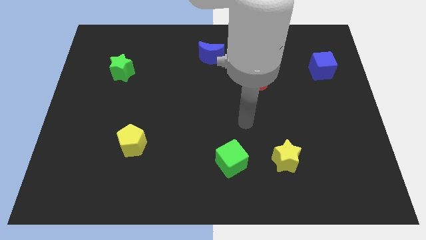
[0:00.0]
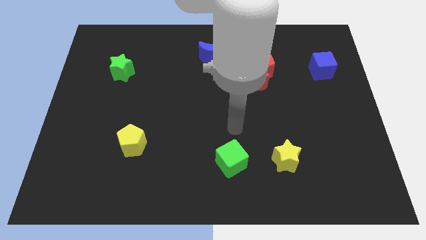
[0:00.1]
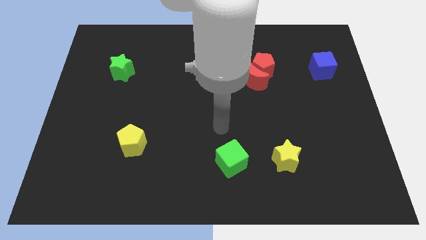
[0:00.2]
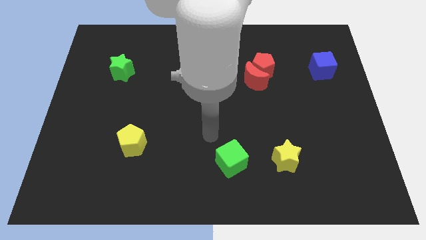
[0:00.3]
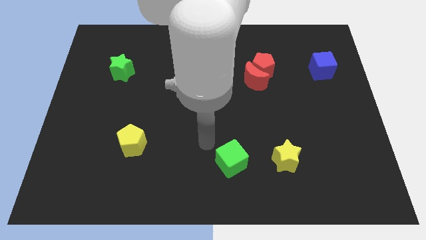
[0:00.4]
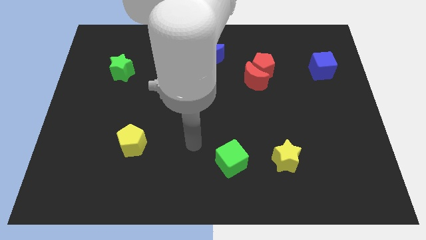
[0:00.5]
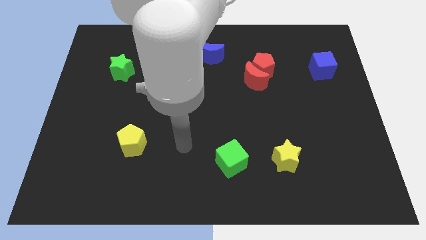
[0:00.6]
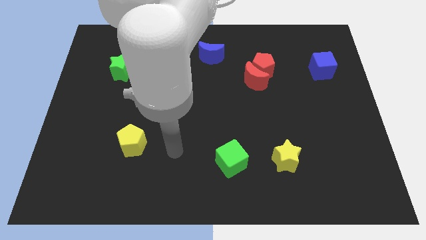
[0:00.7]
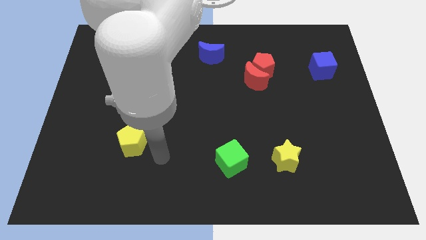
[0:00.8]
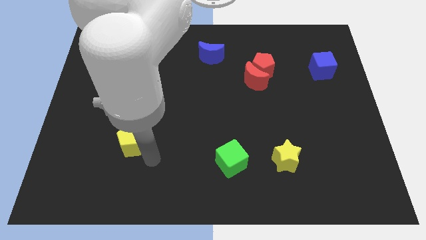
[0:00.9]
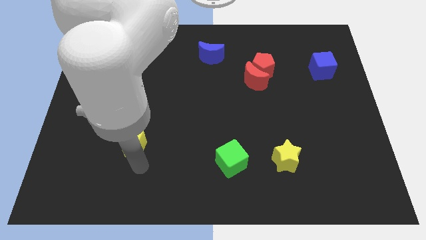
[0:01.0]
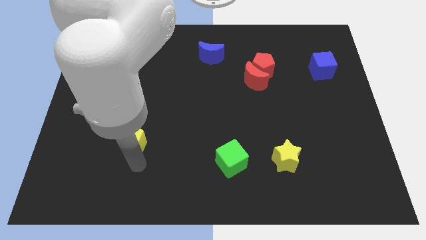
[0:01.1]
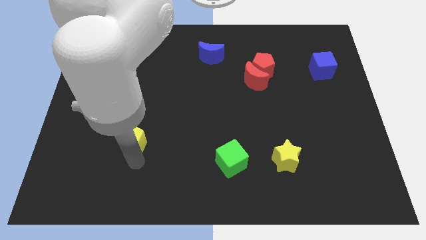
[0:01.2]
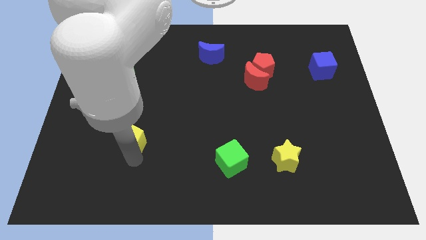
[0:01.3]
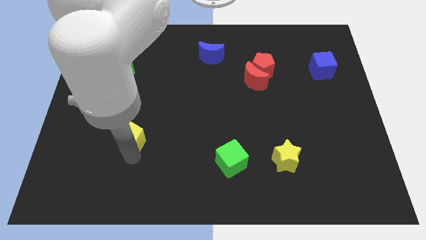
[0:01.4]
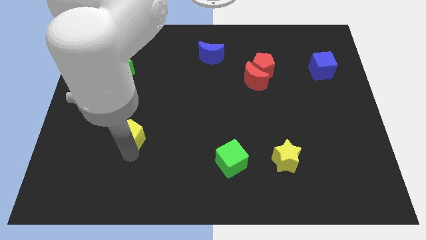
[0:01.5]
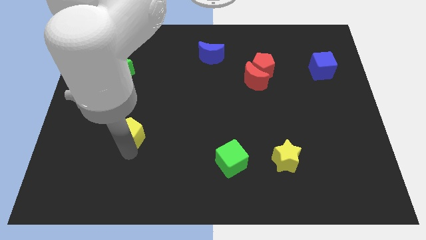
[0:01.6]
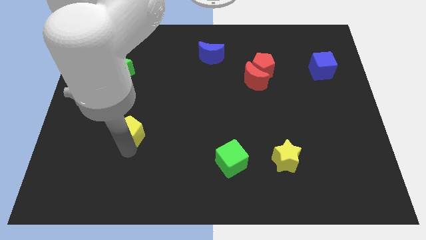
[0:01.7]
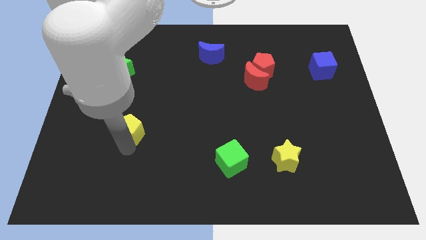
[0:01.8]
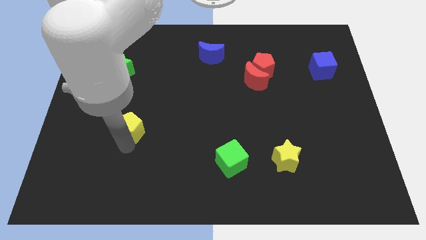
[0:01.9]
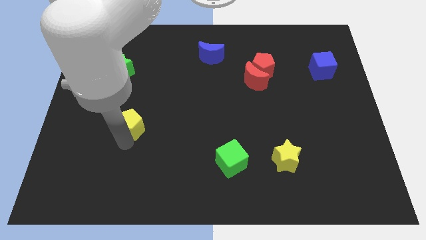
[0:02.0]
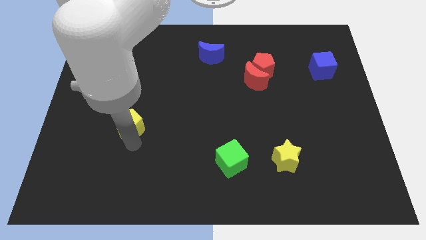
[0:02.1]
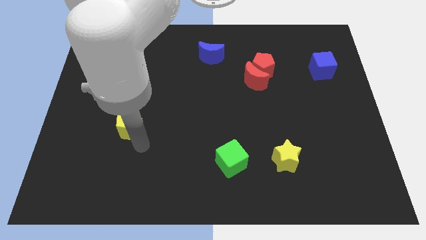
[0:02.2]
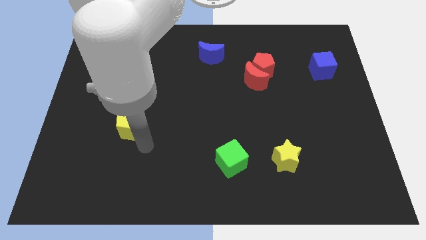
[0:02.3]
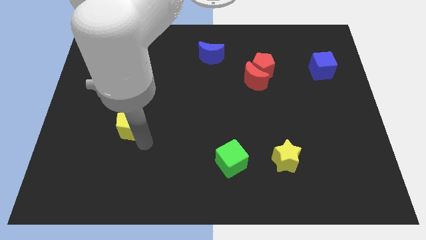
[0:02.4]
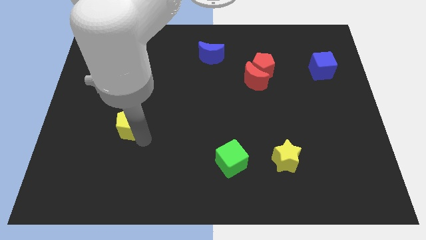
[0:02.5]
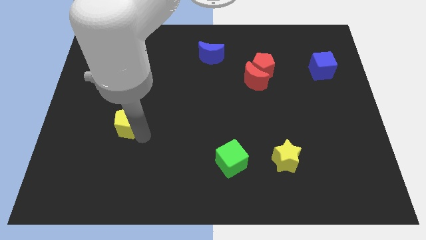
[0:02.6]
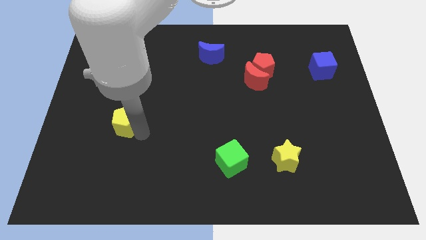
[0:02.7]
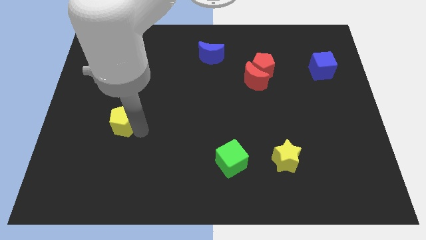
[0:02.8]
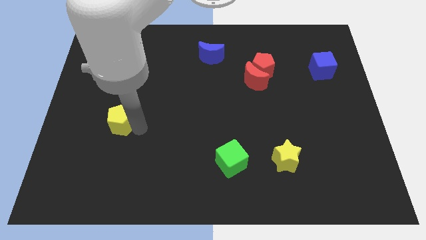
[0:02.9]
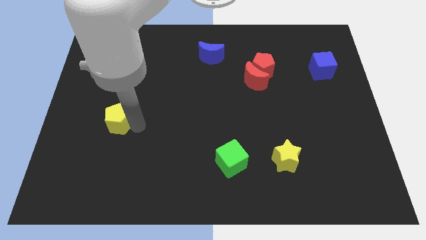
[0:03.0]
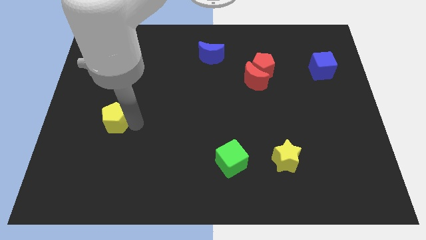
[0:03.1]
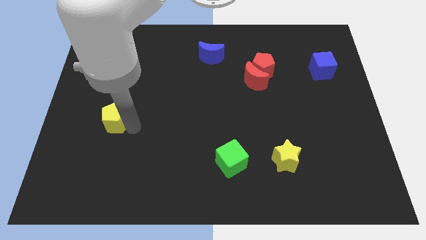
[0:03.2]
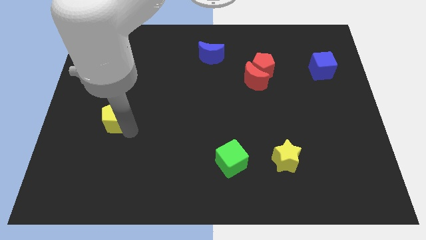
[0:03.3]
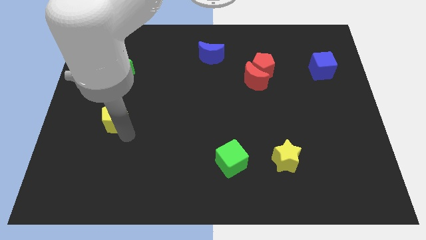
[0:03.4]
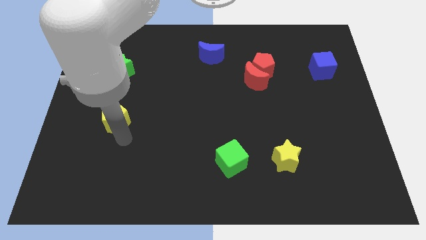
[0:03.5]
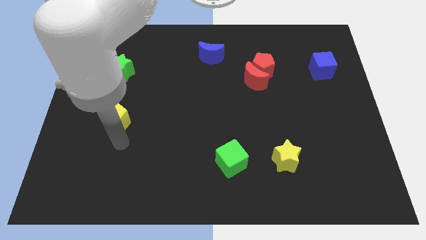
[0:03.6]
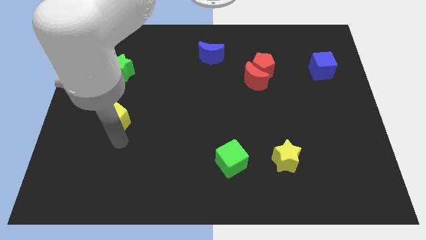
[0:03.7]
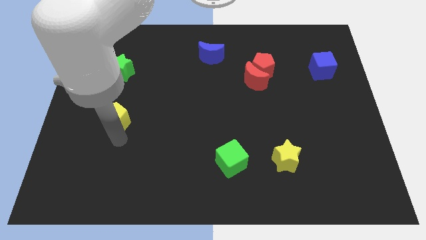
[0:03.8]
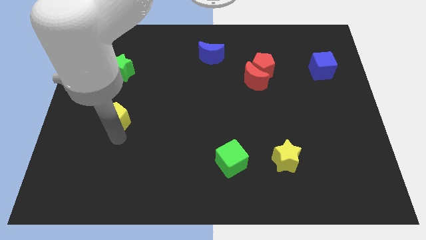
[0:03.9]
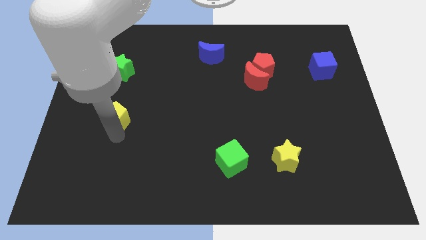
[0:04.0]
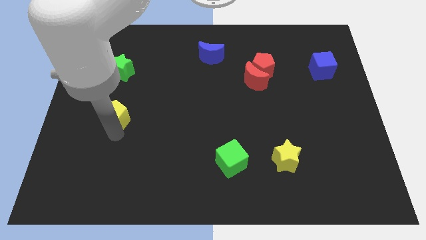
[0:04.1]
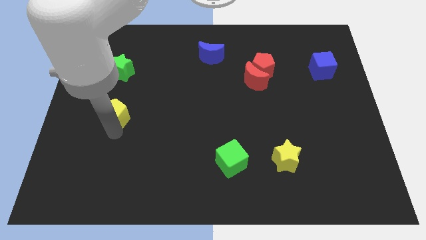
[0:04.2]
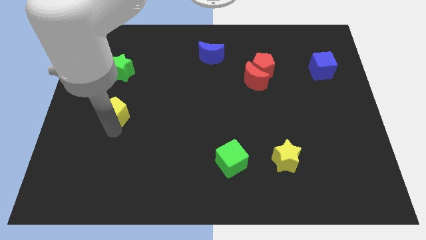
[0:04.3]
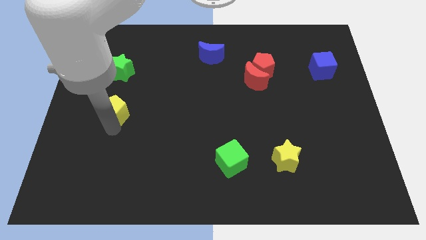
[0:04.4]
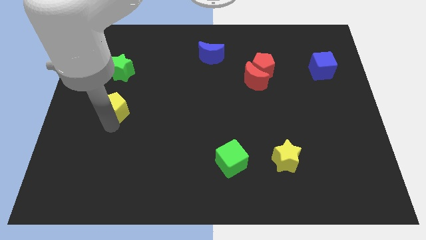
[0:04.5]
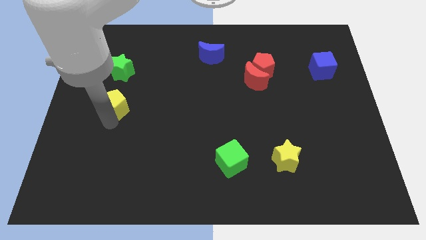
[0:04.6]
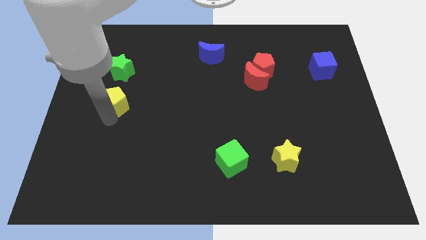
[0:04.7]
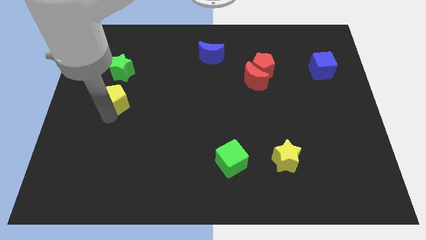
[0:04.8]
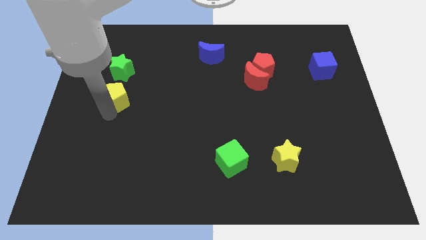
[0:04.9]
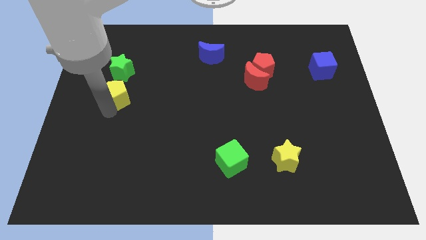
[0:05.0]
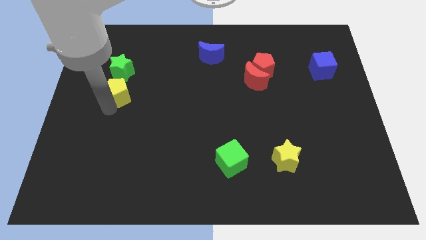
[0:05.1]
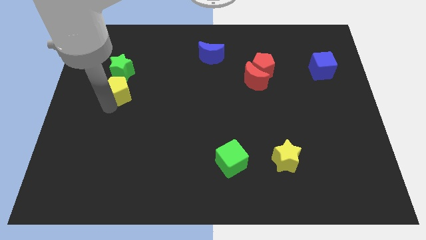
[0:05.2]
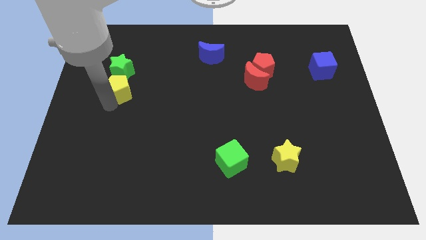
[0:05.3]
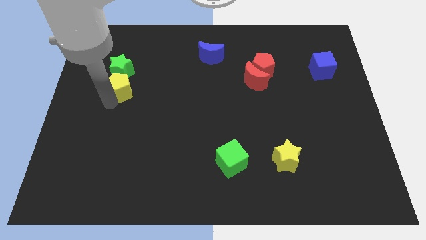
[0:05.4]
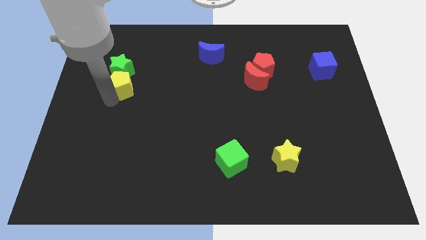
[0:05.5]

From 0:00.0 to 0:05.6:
slide the yellow pentagon to the green star

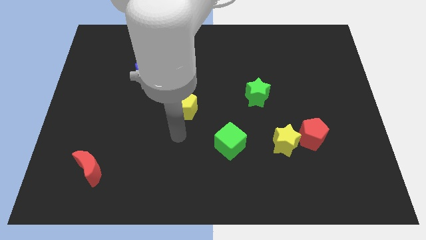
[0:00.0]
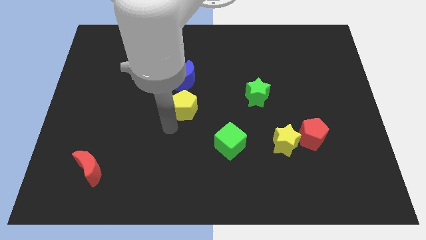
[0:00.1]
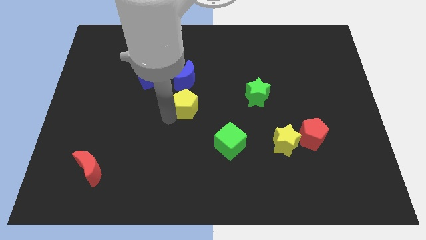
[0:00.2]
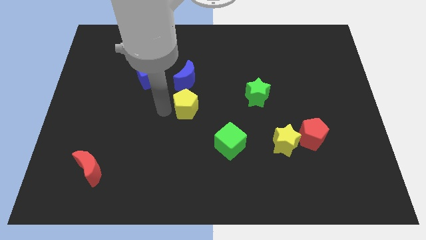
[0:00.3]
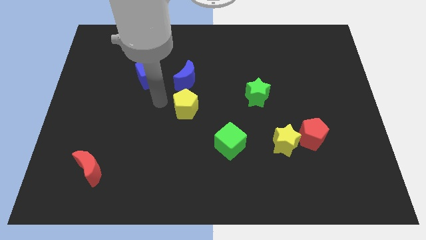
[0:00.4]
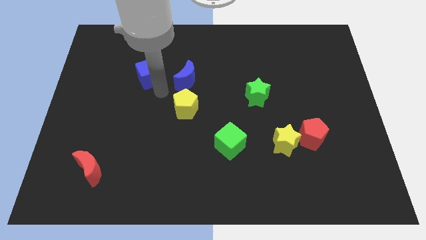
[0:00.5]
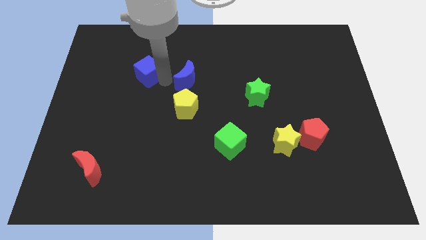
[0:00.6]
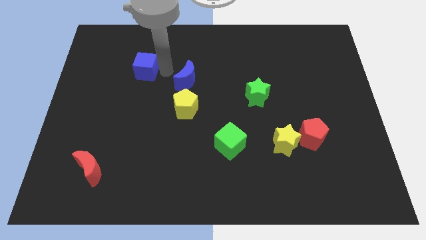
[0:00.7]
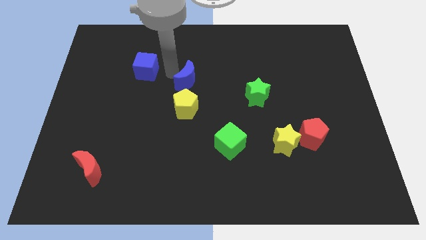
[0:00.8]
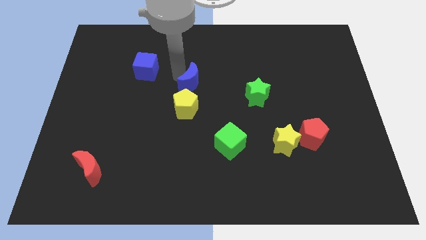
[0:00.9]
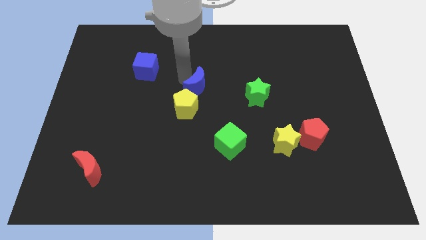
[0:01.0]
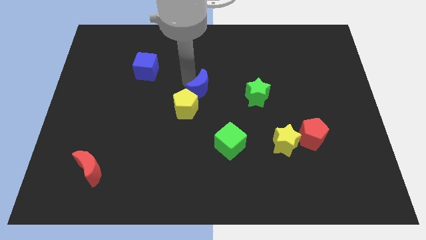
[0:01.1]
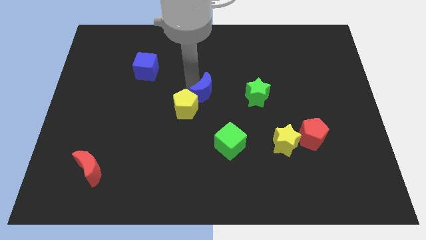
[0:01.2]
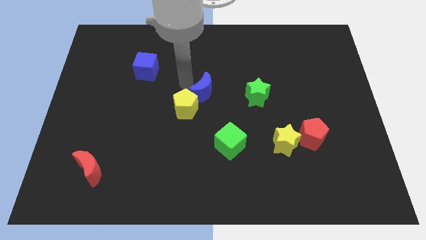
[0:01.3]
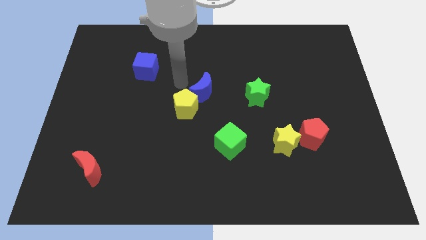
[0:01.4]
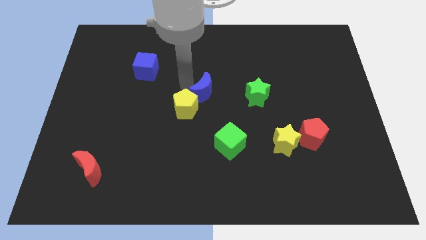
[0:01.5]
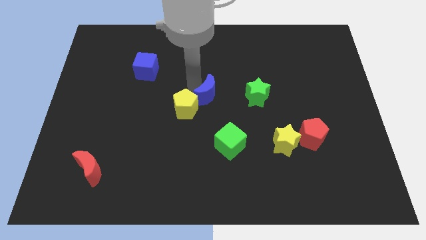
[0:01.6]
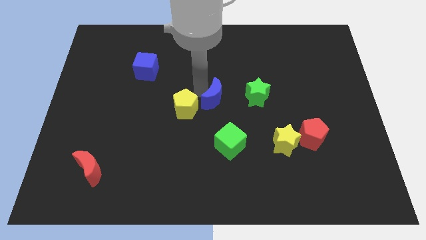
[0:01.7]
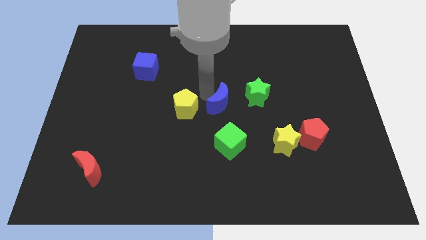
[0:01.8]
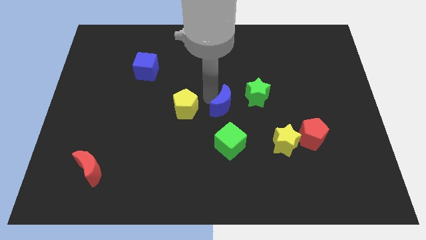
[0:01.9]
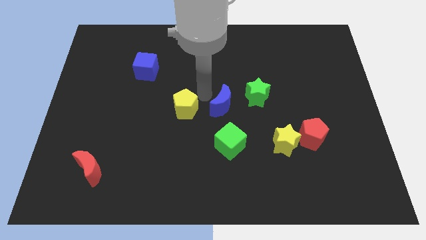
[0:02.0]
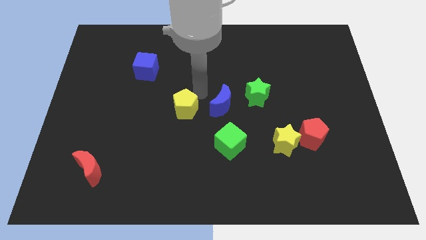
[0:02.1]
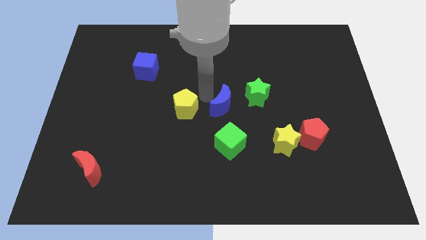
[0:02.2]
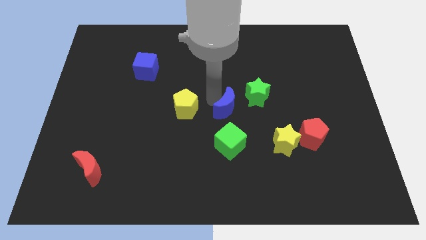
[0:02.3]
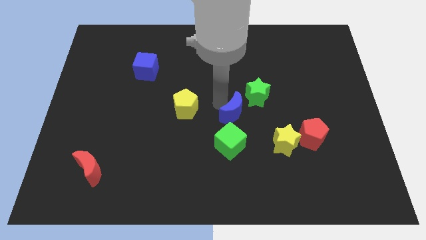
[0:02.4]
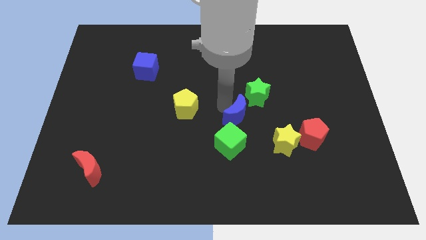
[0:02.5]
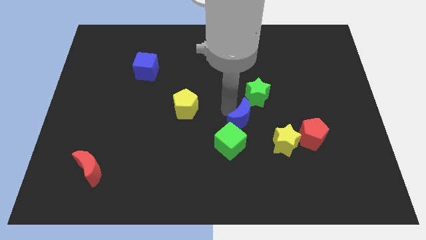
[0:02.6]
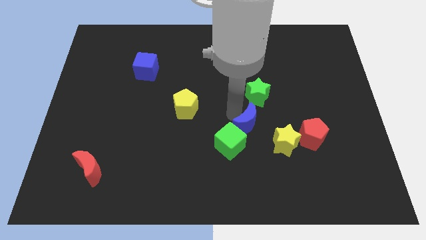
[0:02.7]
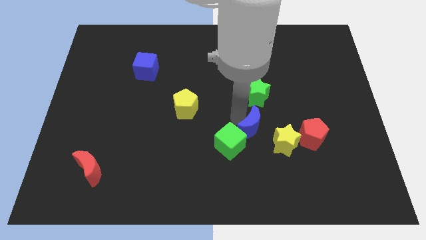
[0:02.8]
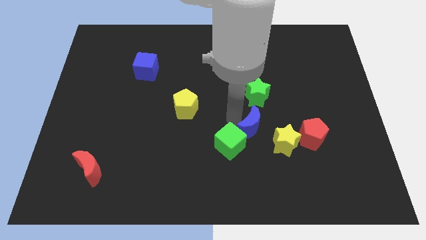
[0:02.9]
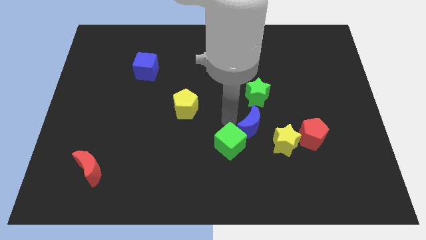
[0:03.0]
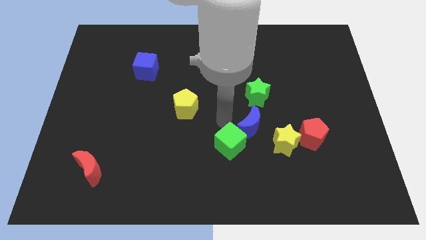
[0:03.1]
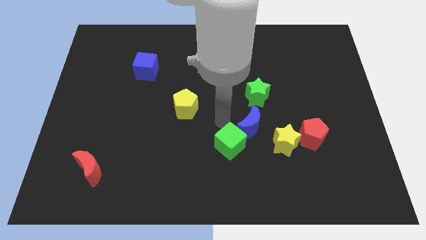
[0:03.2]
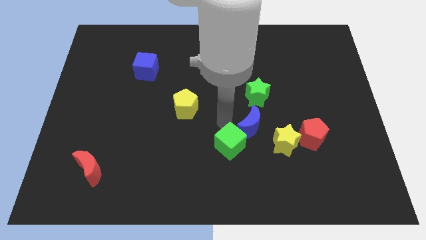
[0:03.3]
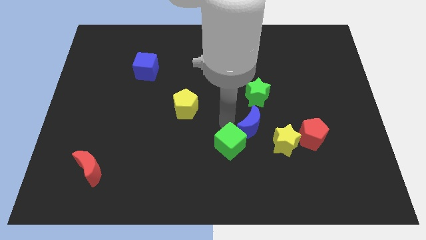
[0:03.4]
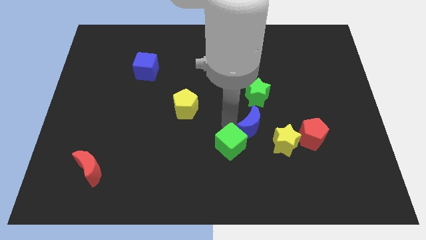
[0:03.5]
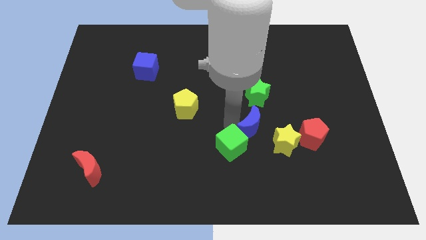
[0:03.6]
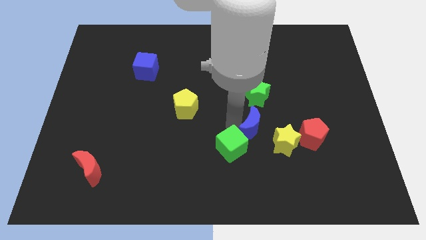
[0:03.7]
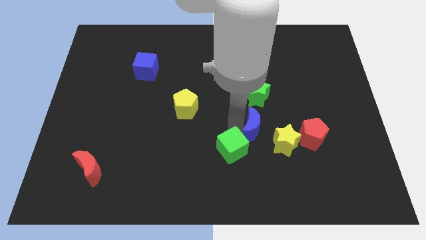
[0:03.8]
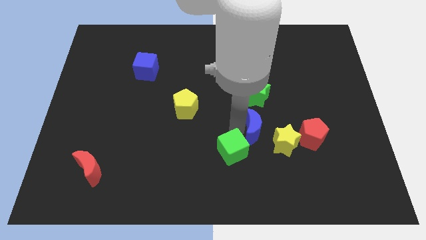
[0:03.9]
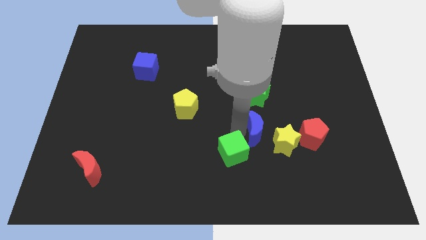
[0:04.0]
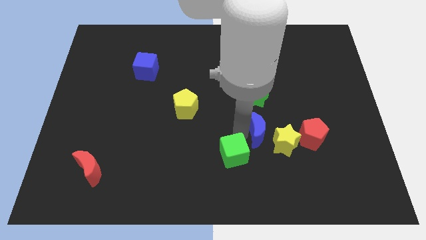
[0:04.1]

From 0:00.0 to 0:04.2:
put the blue moon towards the yellow star
